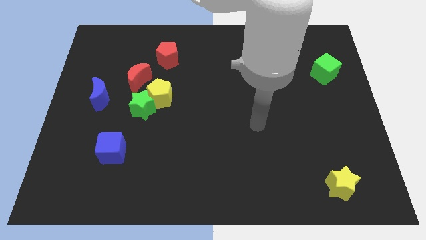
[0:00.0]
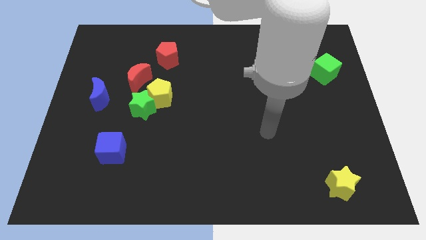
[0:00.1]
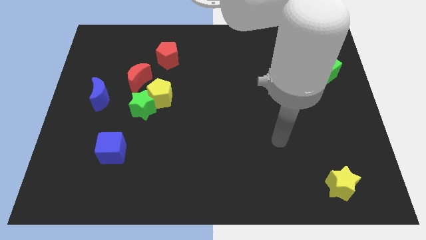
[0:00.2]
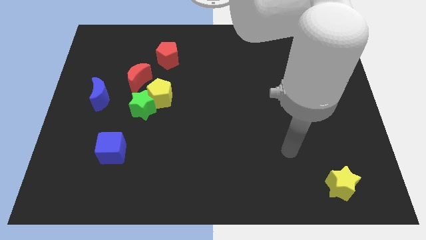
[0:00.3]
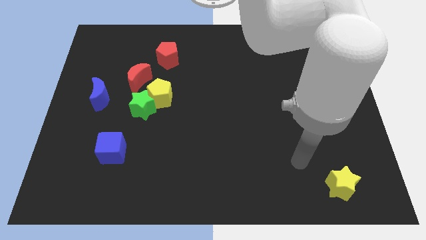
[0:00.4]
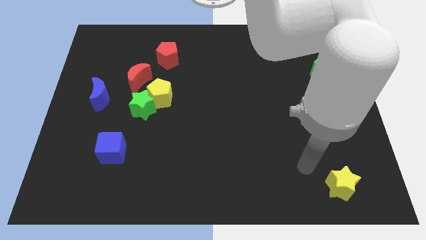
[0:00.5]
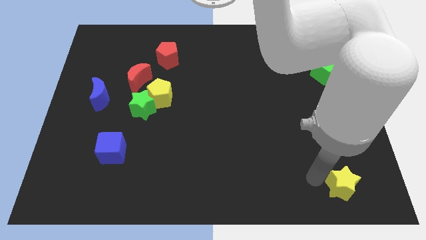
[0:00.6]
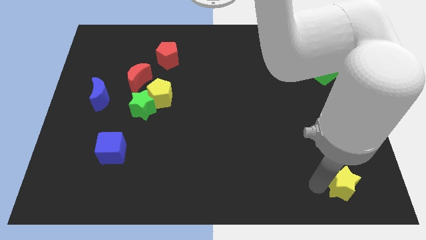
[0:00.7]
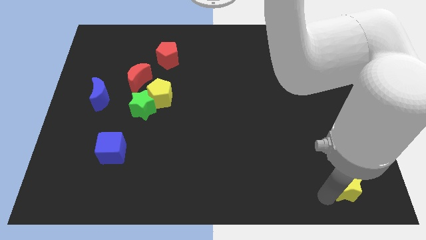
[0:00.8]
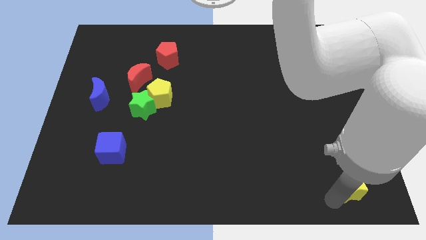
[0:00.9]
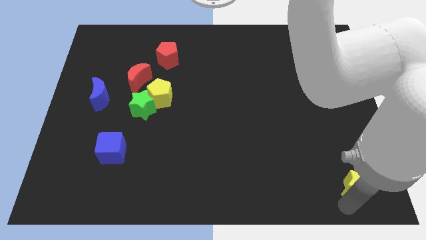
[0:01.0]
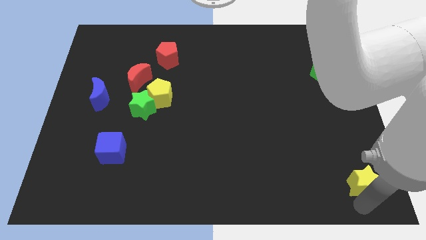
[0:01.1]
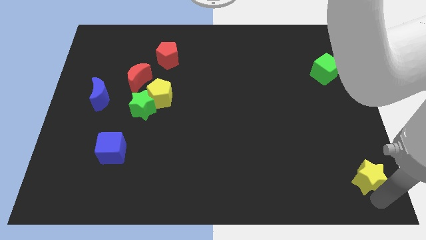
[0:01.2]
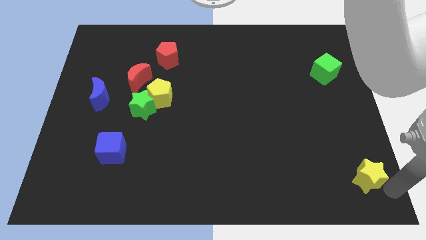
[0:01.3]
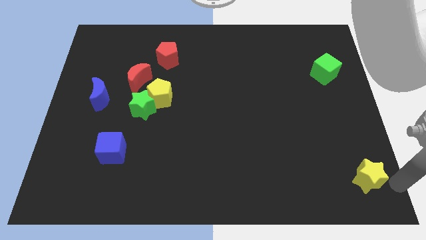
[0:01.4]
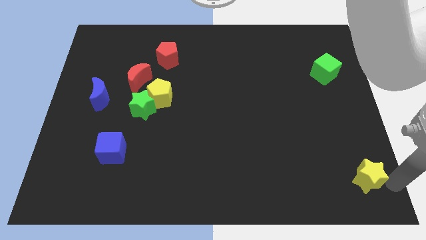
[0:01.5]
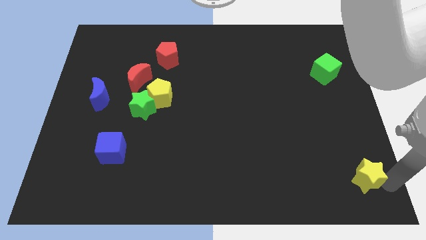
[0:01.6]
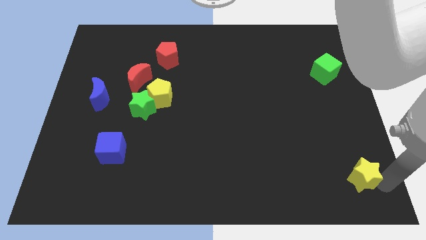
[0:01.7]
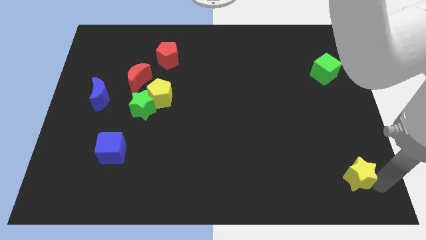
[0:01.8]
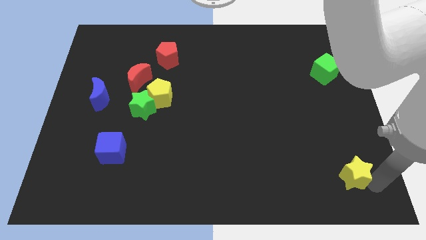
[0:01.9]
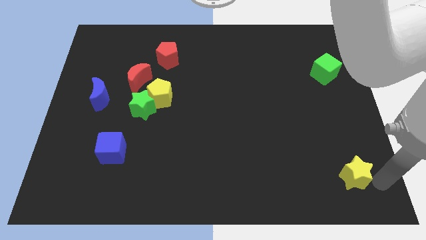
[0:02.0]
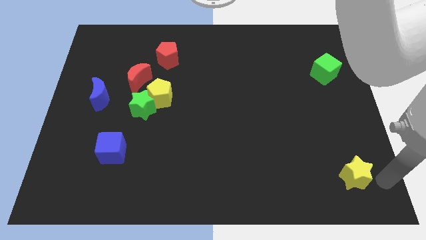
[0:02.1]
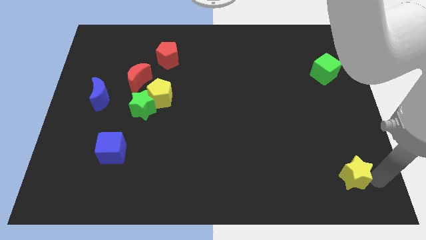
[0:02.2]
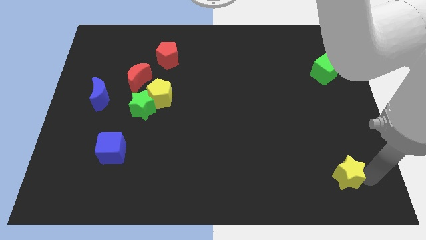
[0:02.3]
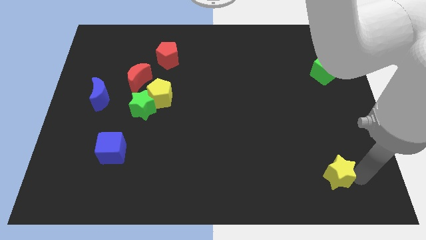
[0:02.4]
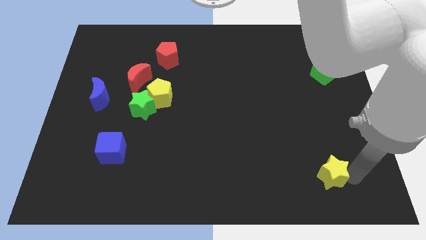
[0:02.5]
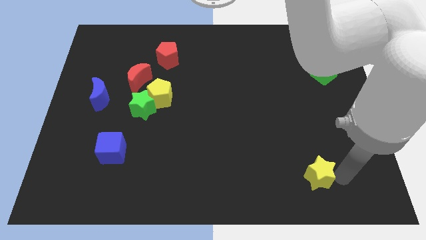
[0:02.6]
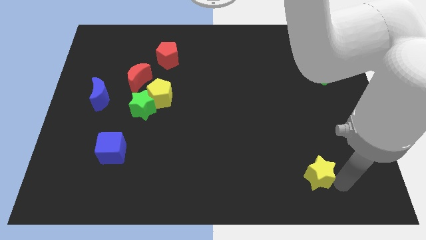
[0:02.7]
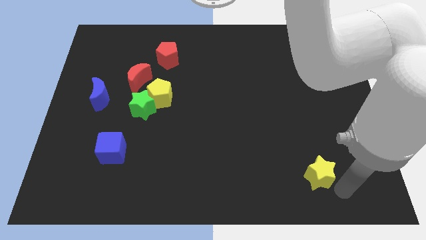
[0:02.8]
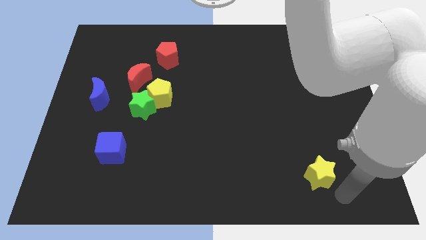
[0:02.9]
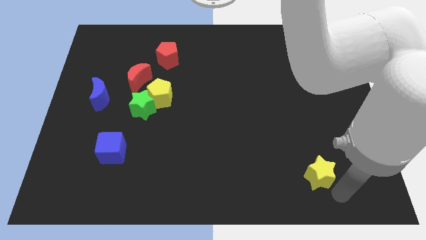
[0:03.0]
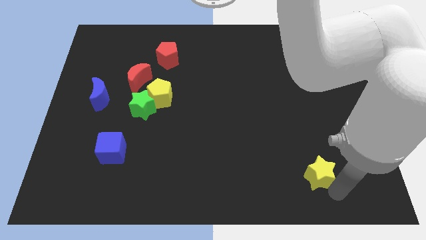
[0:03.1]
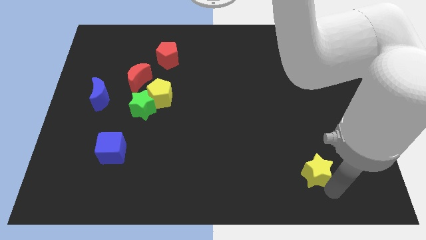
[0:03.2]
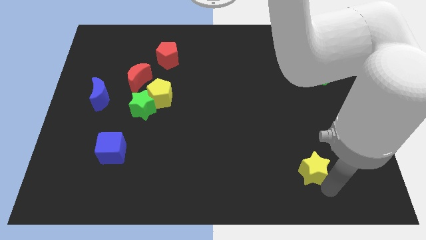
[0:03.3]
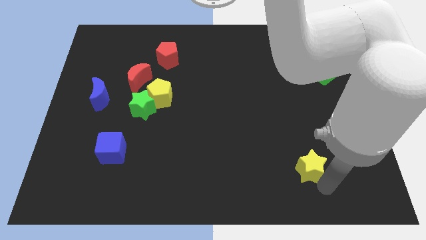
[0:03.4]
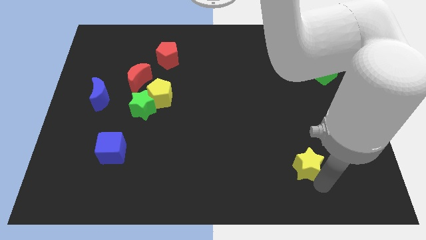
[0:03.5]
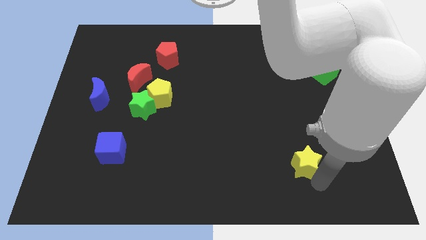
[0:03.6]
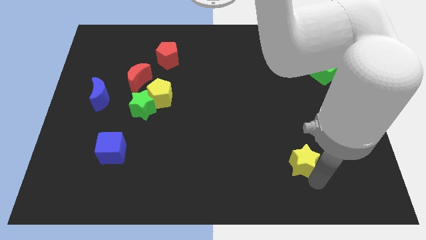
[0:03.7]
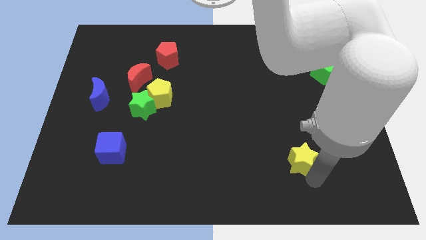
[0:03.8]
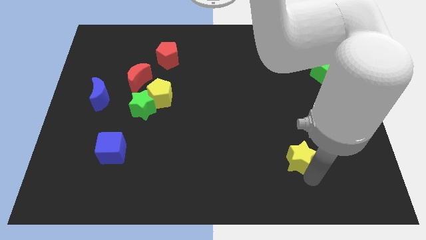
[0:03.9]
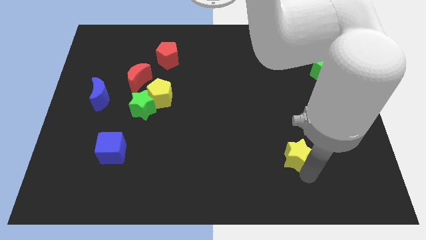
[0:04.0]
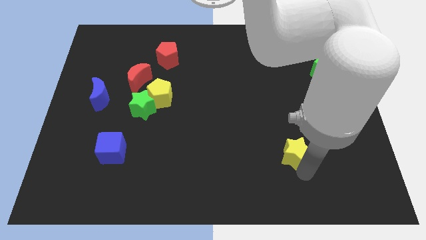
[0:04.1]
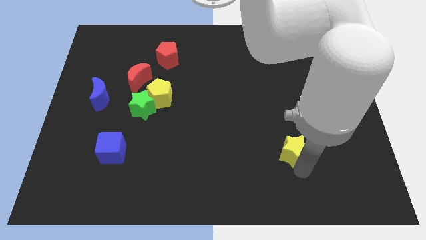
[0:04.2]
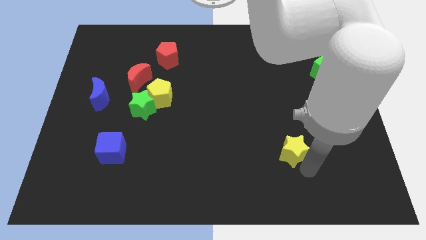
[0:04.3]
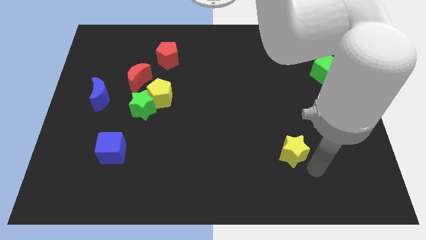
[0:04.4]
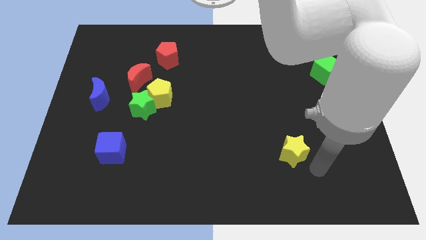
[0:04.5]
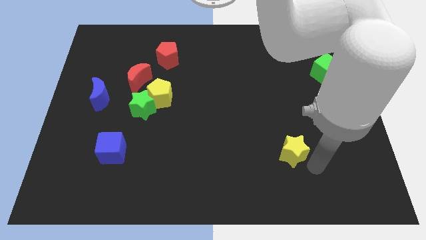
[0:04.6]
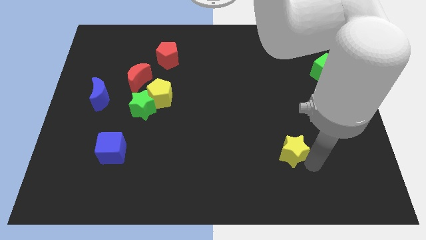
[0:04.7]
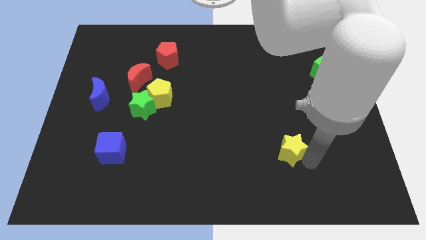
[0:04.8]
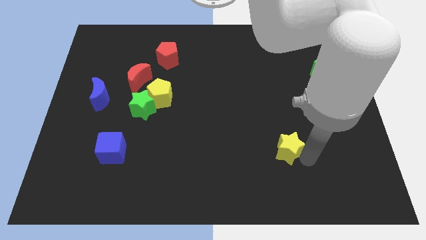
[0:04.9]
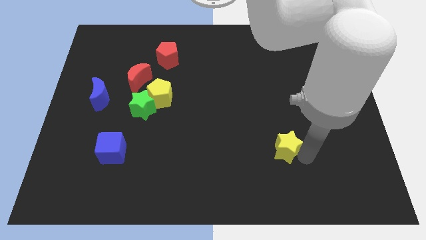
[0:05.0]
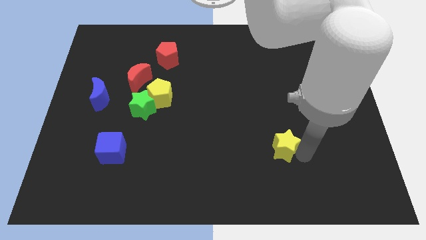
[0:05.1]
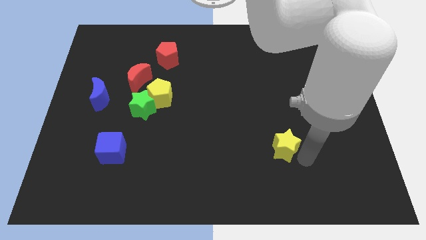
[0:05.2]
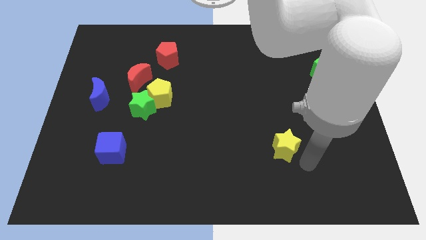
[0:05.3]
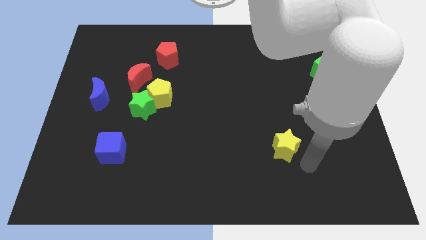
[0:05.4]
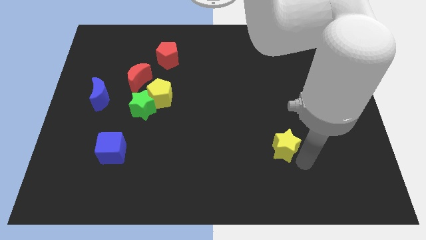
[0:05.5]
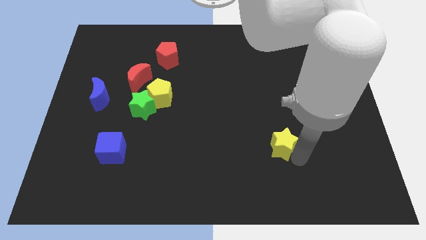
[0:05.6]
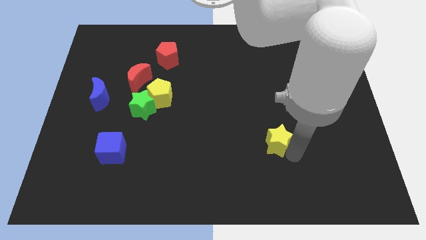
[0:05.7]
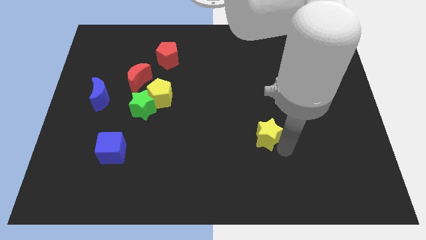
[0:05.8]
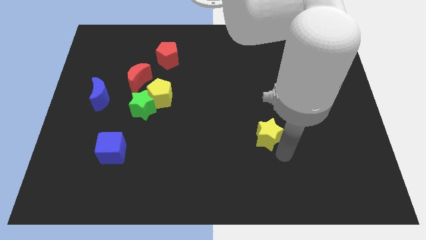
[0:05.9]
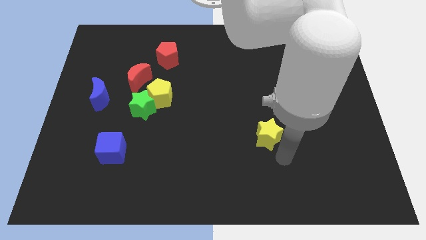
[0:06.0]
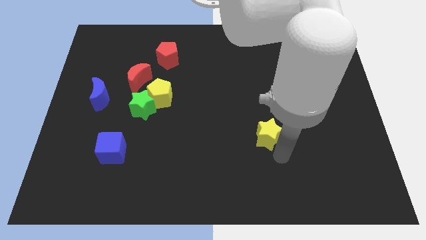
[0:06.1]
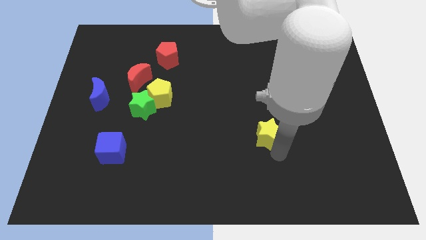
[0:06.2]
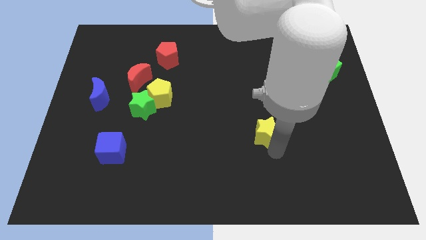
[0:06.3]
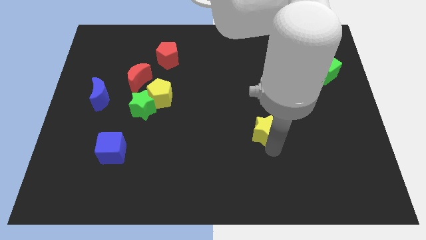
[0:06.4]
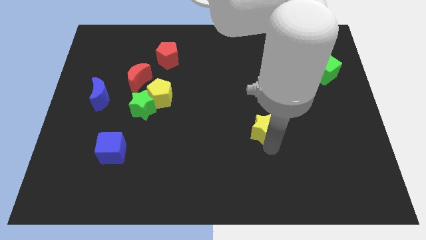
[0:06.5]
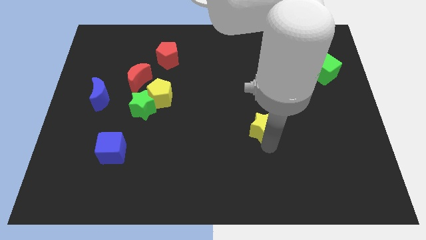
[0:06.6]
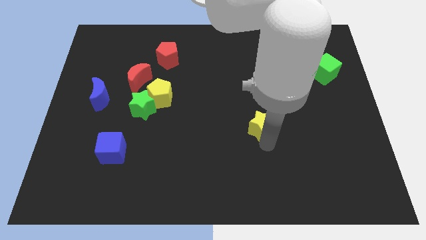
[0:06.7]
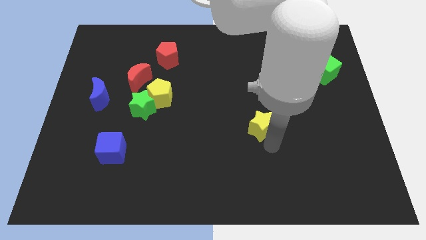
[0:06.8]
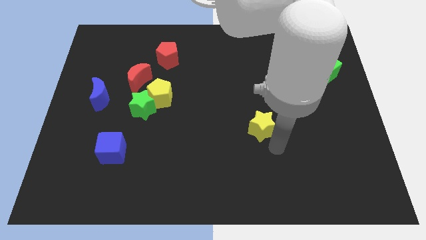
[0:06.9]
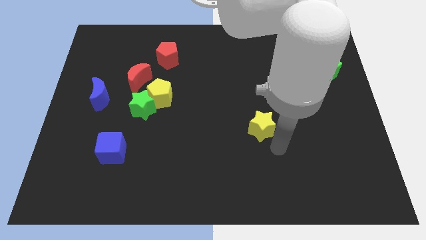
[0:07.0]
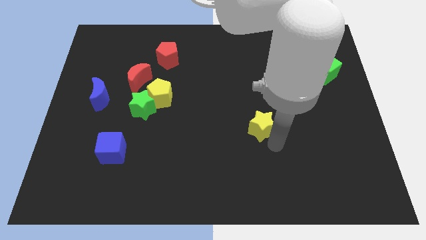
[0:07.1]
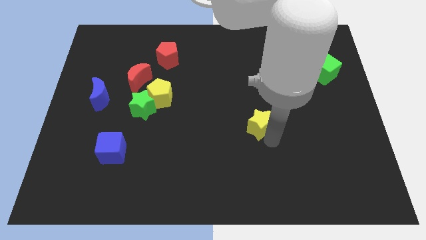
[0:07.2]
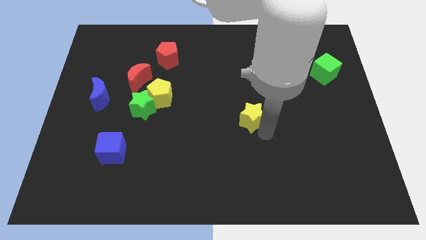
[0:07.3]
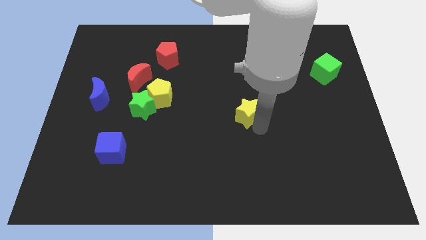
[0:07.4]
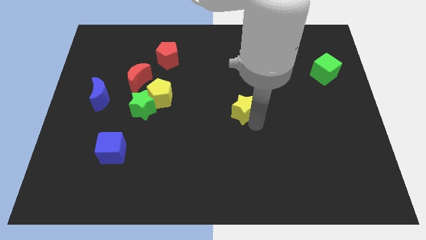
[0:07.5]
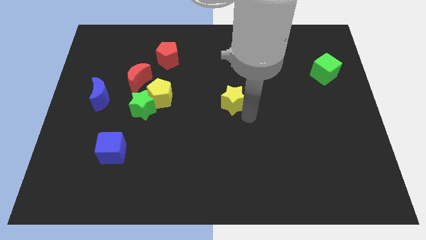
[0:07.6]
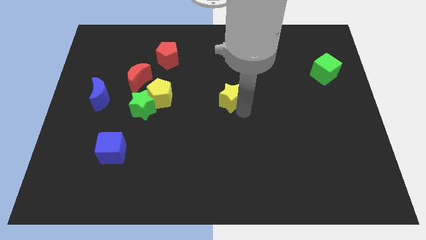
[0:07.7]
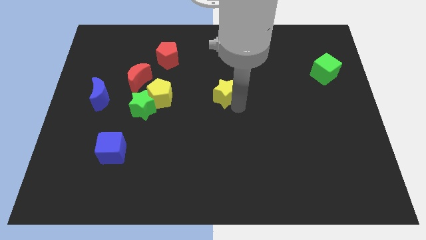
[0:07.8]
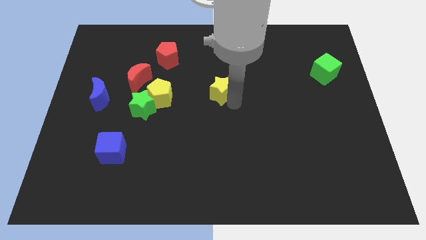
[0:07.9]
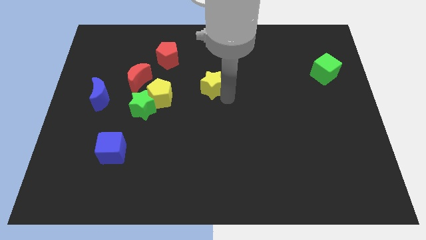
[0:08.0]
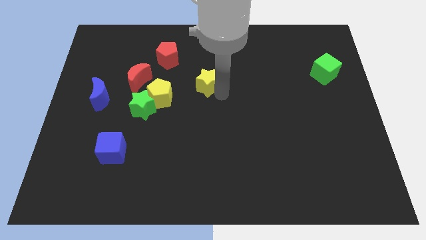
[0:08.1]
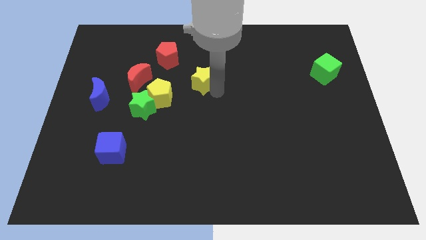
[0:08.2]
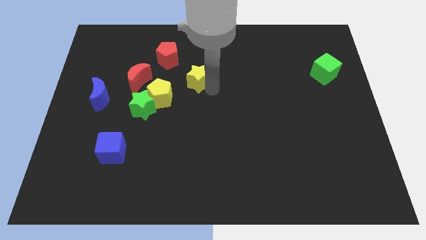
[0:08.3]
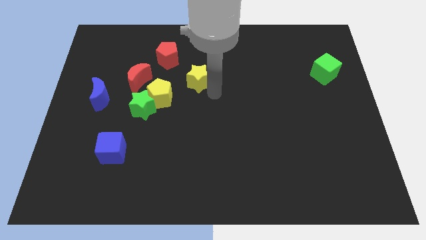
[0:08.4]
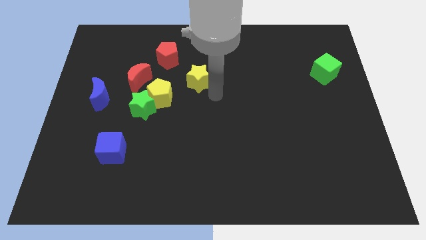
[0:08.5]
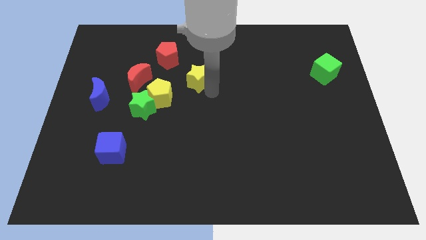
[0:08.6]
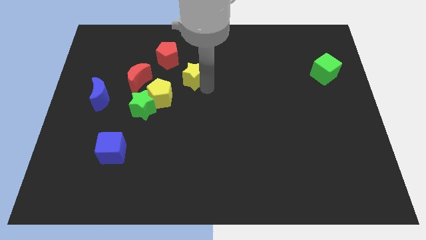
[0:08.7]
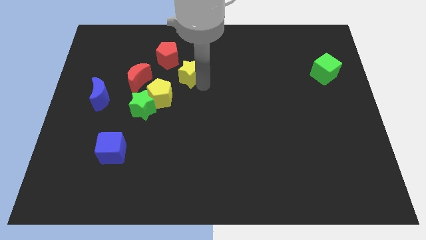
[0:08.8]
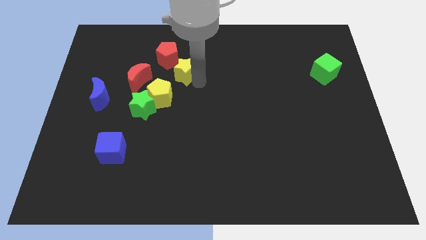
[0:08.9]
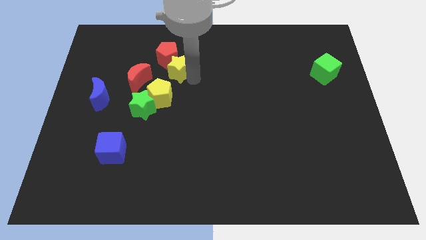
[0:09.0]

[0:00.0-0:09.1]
move the yellow star towards the red pentagon
